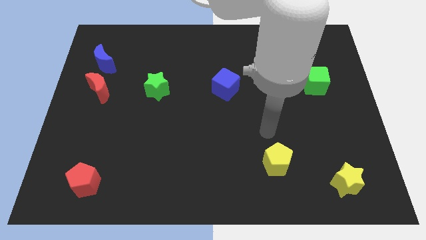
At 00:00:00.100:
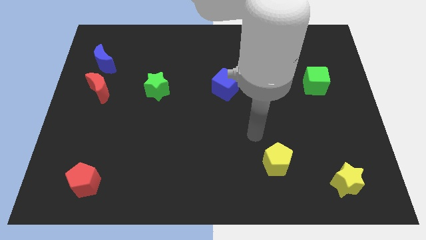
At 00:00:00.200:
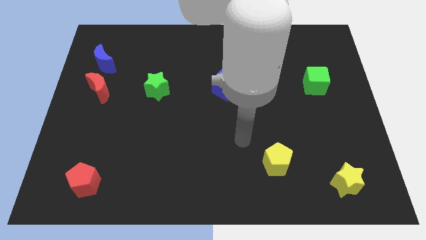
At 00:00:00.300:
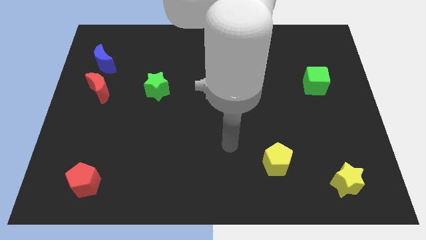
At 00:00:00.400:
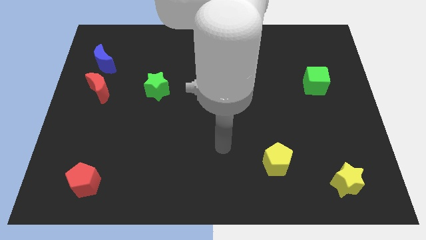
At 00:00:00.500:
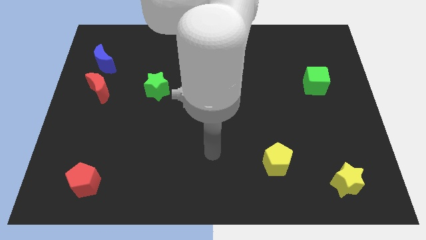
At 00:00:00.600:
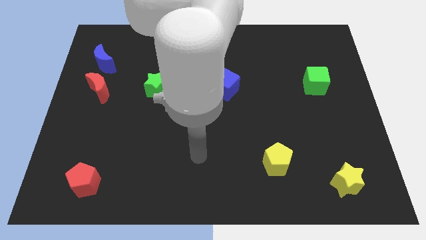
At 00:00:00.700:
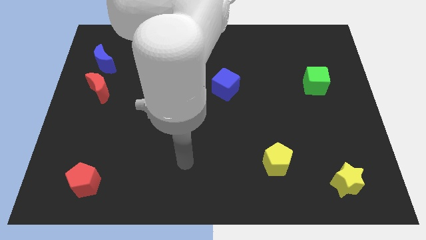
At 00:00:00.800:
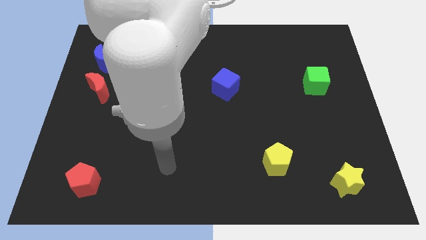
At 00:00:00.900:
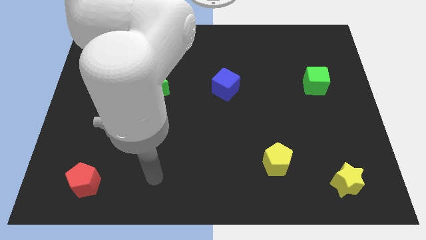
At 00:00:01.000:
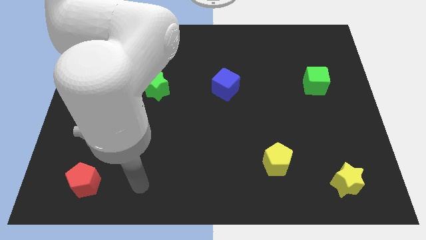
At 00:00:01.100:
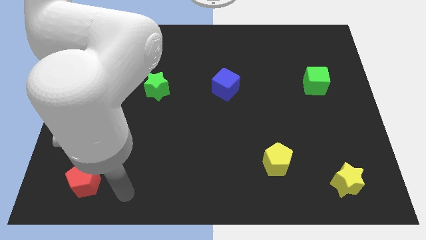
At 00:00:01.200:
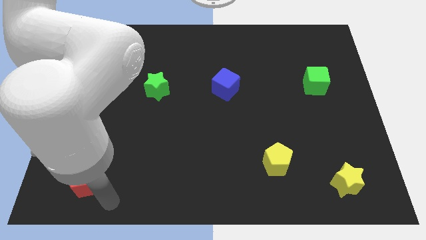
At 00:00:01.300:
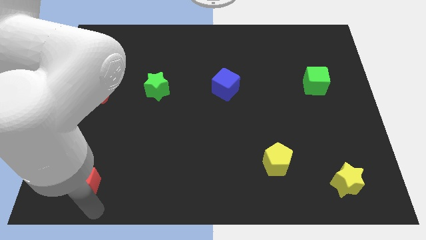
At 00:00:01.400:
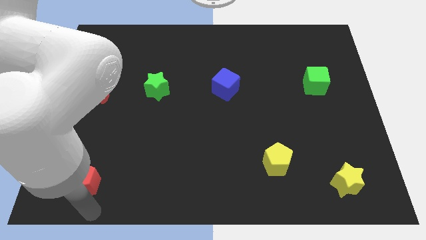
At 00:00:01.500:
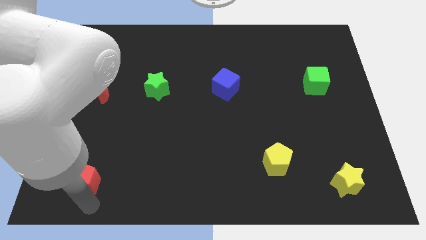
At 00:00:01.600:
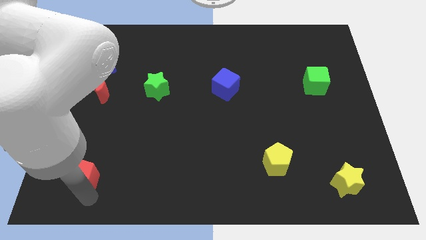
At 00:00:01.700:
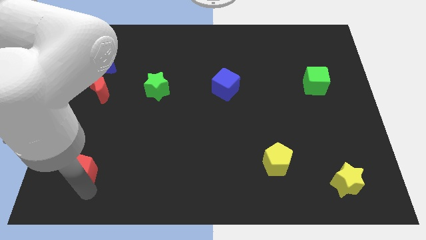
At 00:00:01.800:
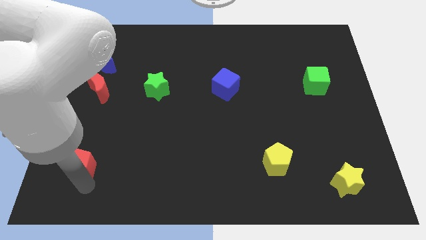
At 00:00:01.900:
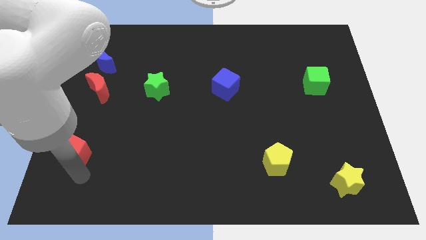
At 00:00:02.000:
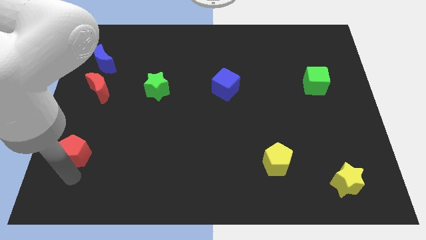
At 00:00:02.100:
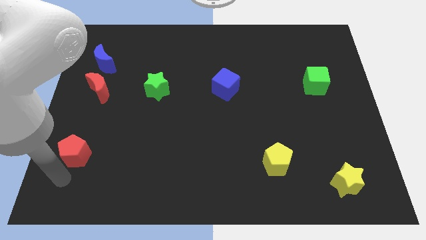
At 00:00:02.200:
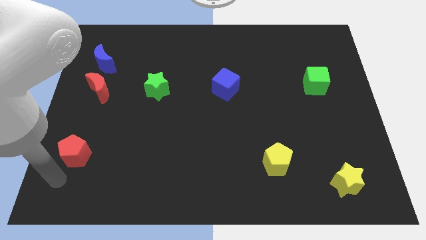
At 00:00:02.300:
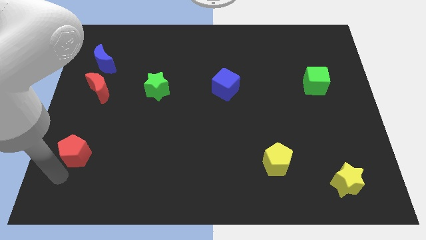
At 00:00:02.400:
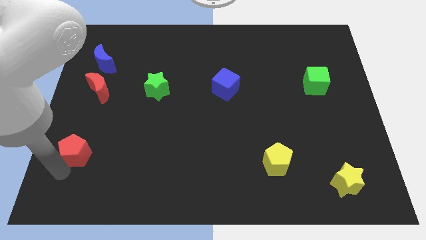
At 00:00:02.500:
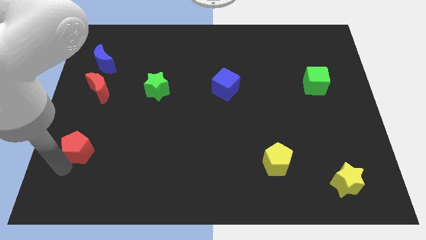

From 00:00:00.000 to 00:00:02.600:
push the red pentagon somewhat up

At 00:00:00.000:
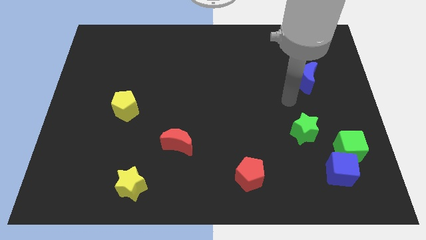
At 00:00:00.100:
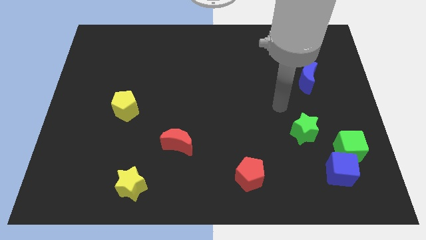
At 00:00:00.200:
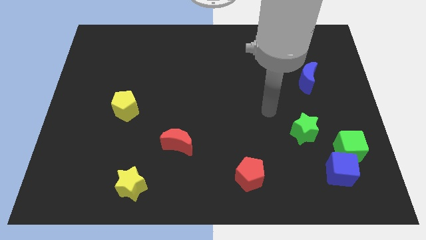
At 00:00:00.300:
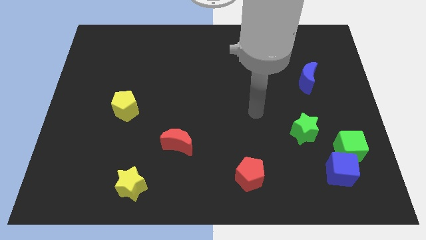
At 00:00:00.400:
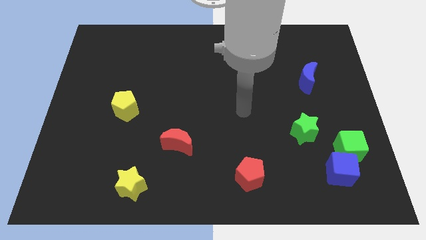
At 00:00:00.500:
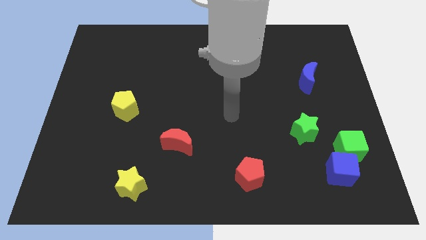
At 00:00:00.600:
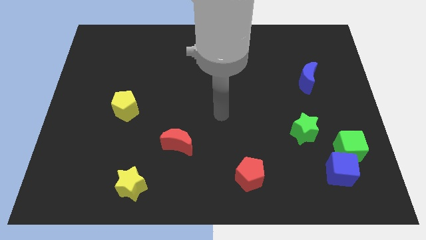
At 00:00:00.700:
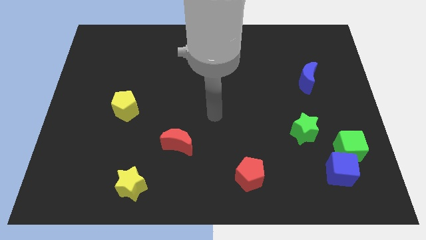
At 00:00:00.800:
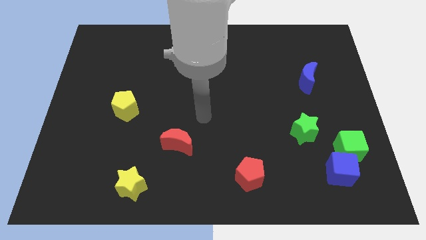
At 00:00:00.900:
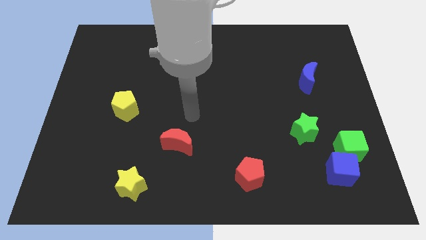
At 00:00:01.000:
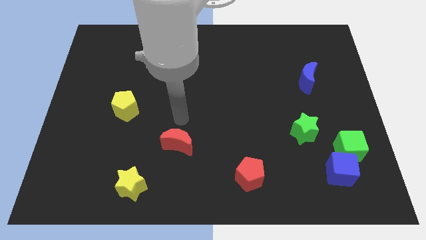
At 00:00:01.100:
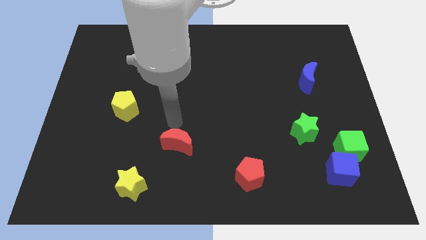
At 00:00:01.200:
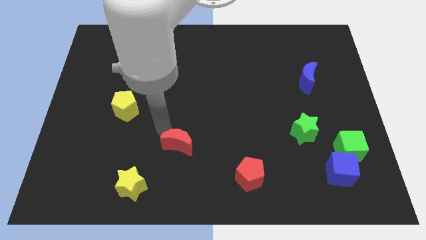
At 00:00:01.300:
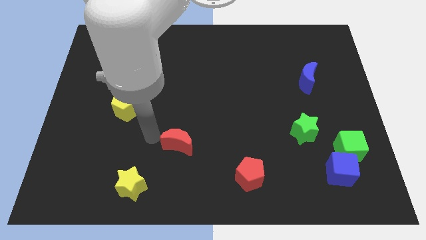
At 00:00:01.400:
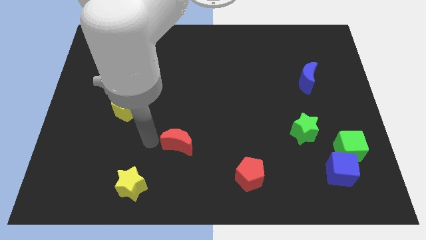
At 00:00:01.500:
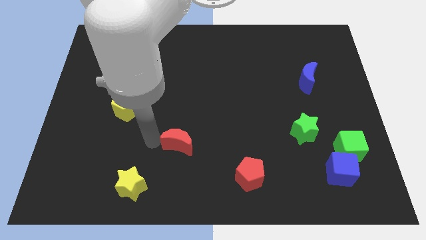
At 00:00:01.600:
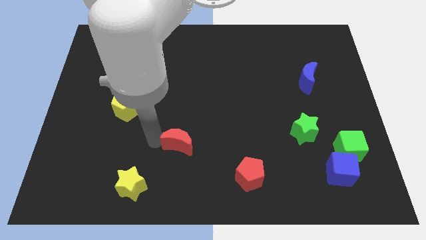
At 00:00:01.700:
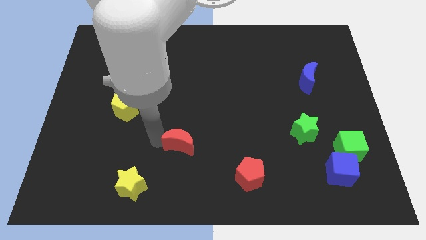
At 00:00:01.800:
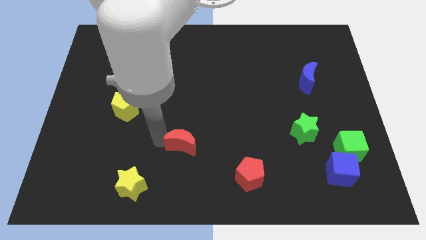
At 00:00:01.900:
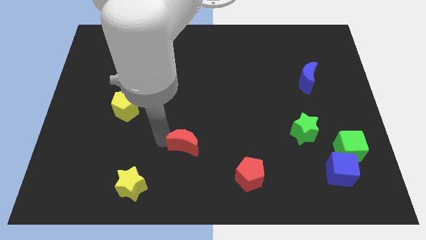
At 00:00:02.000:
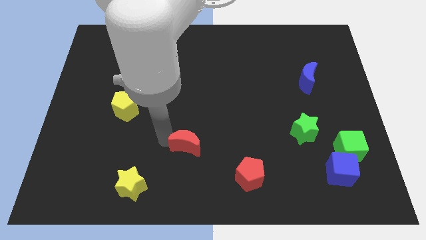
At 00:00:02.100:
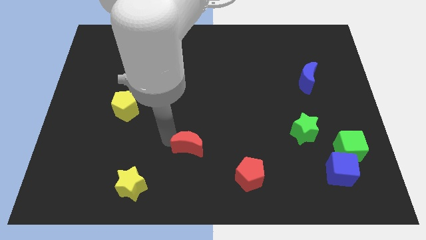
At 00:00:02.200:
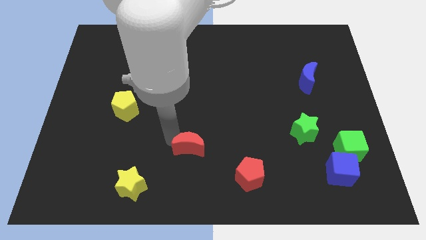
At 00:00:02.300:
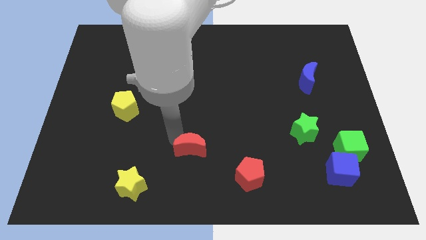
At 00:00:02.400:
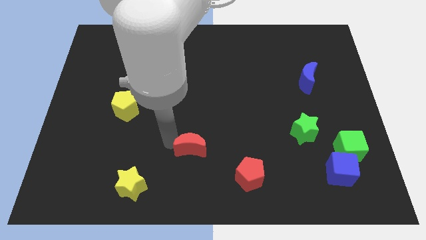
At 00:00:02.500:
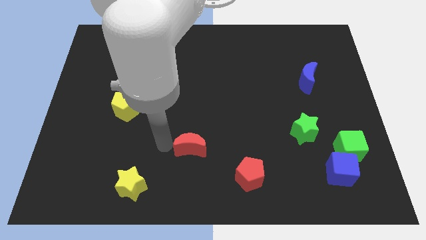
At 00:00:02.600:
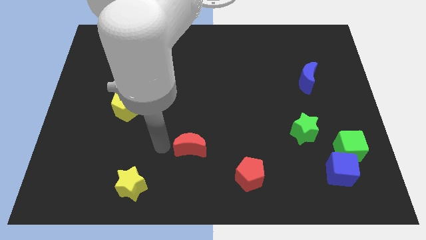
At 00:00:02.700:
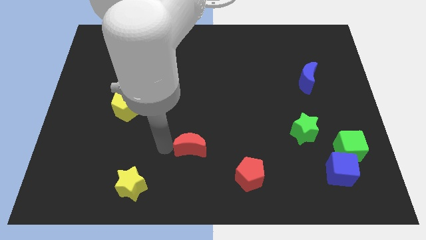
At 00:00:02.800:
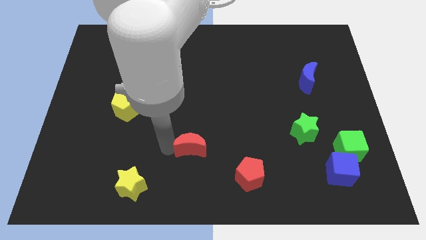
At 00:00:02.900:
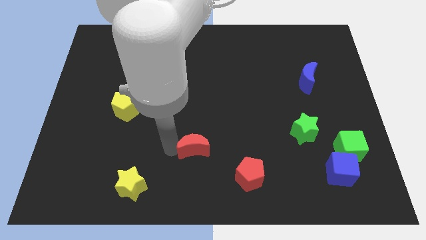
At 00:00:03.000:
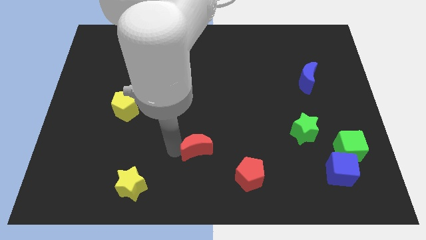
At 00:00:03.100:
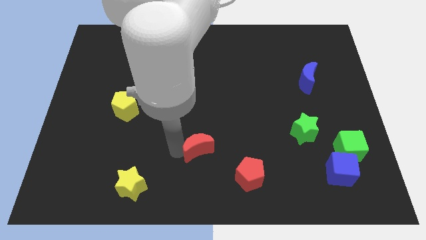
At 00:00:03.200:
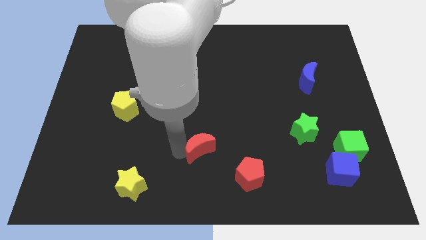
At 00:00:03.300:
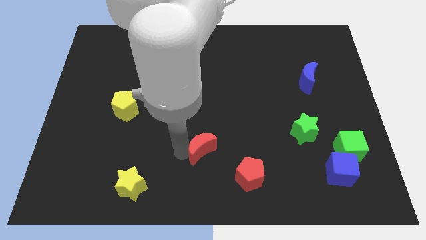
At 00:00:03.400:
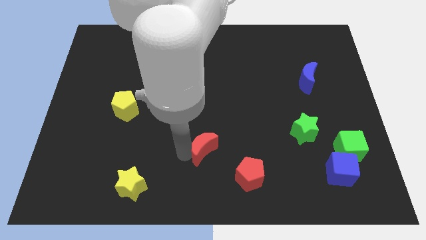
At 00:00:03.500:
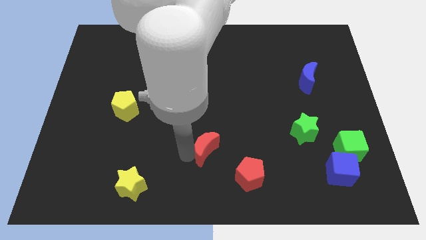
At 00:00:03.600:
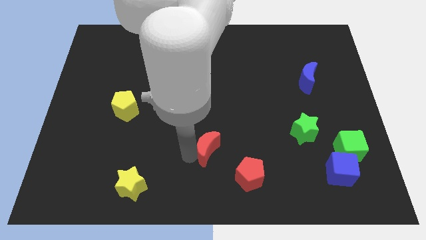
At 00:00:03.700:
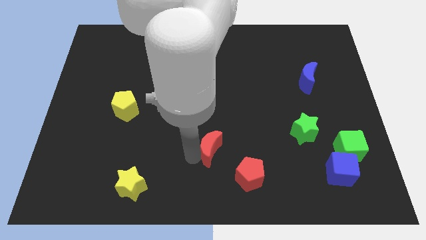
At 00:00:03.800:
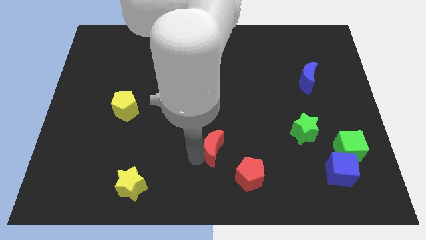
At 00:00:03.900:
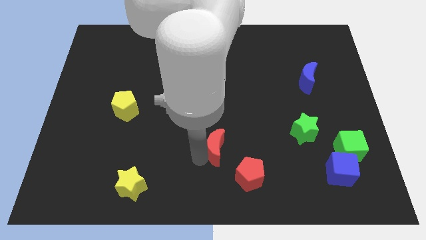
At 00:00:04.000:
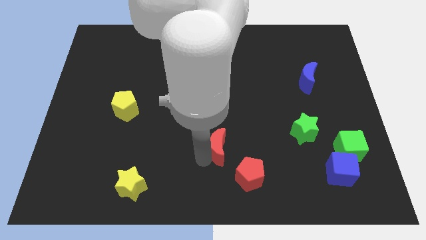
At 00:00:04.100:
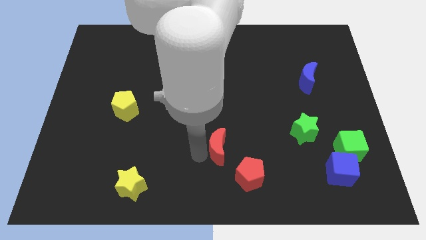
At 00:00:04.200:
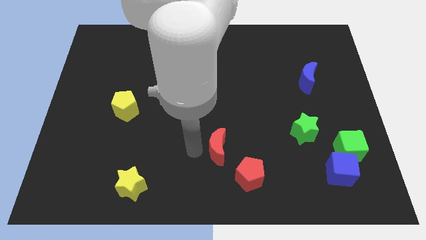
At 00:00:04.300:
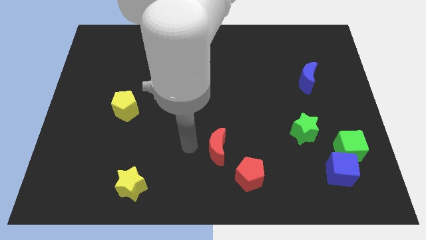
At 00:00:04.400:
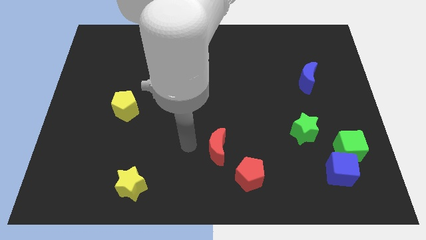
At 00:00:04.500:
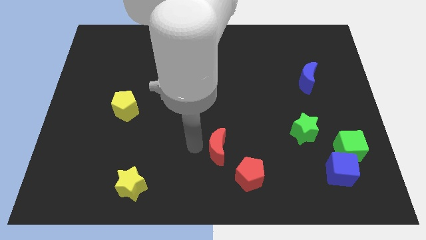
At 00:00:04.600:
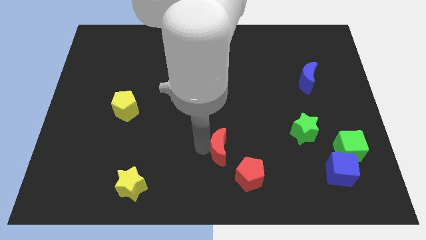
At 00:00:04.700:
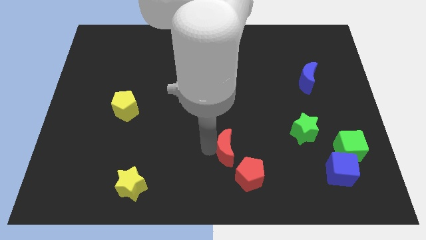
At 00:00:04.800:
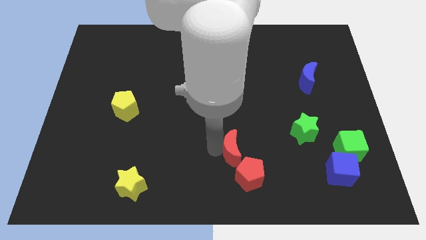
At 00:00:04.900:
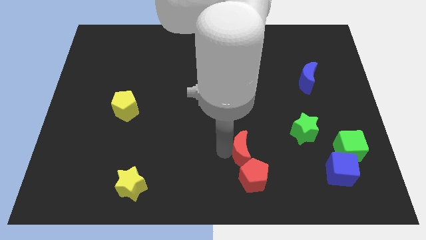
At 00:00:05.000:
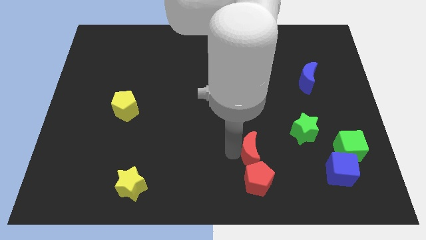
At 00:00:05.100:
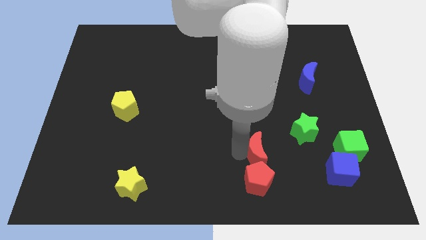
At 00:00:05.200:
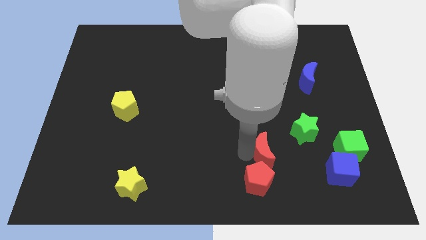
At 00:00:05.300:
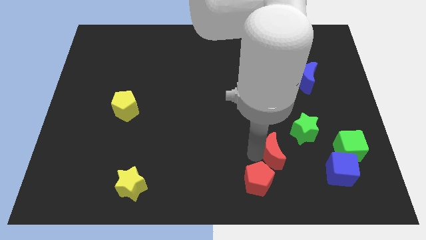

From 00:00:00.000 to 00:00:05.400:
slide the red moon right
